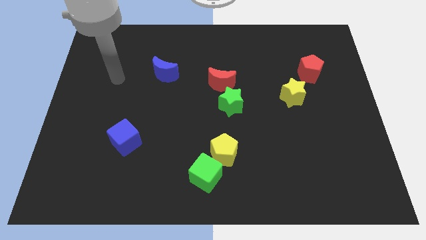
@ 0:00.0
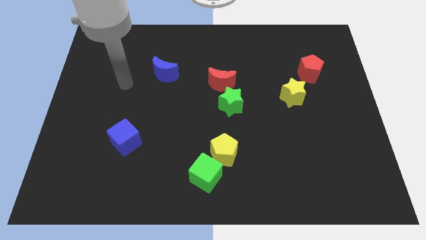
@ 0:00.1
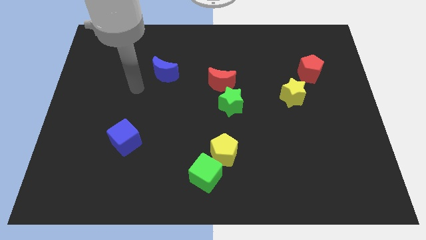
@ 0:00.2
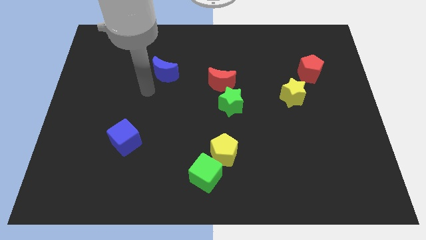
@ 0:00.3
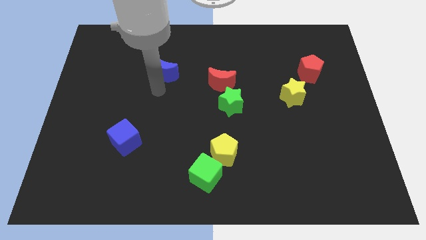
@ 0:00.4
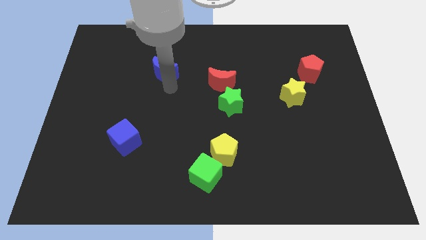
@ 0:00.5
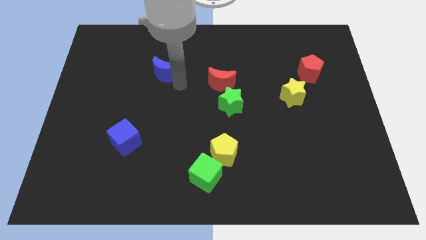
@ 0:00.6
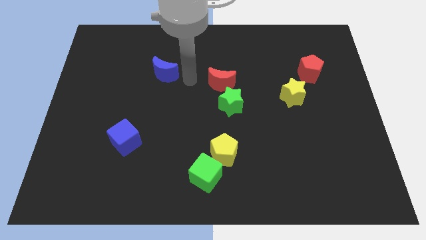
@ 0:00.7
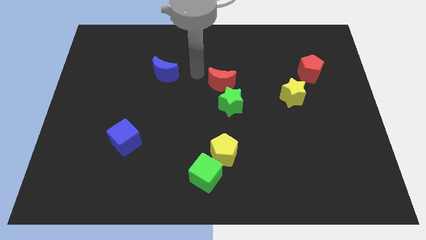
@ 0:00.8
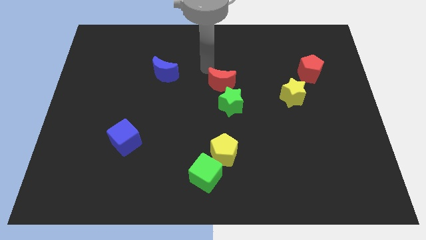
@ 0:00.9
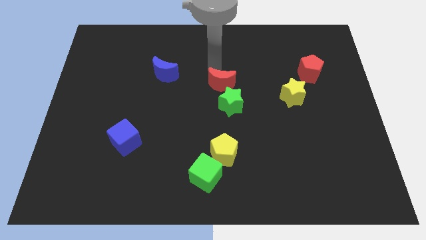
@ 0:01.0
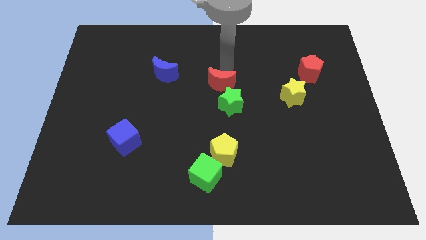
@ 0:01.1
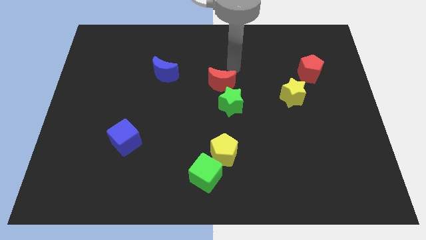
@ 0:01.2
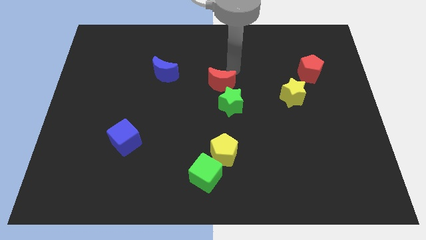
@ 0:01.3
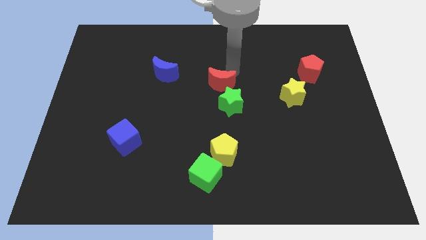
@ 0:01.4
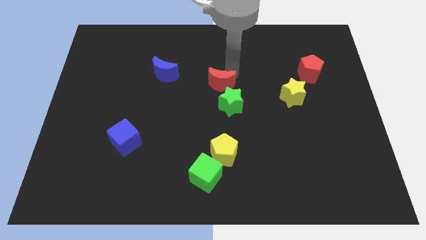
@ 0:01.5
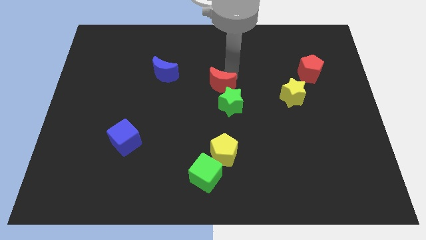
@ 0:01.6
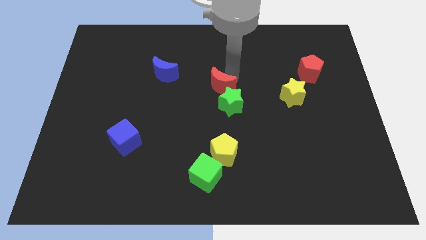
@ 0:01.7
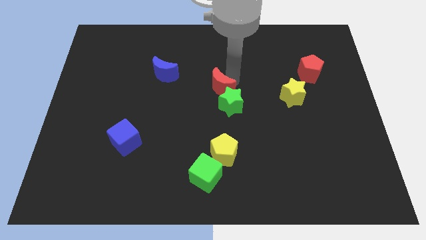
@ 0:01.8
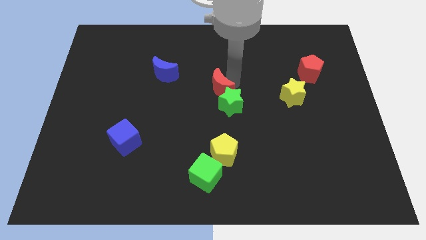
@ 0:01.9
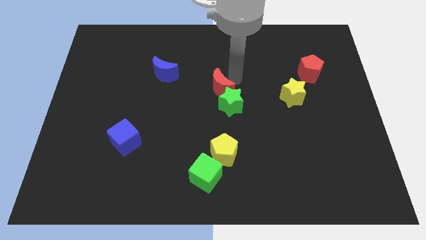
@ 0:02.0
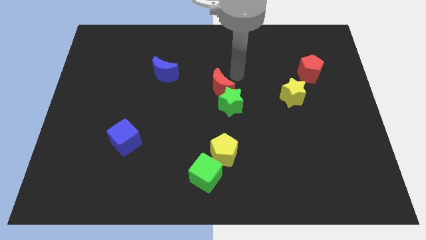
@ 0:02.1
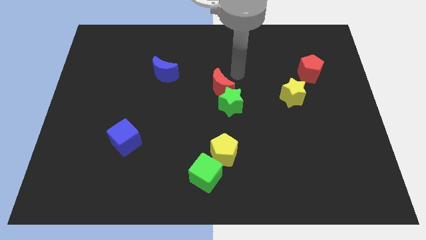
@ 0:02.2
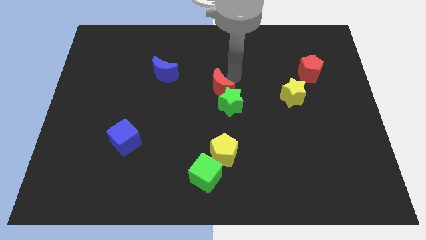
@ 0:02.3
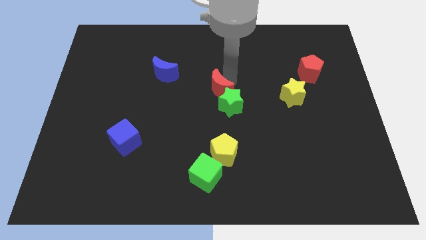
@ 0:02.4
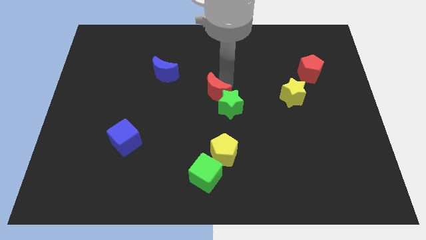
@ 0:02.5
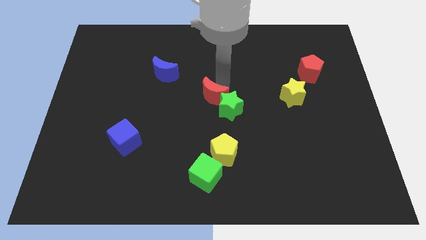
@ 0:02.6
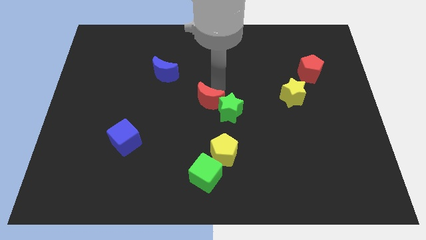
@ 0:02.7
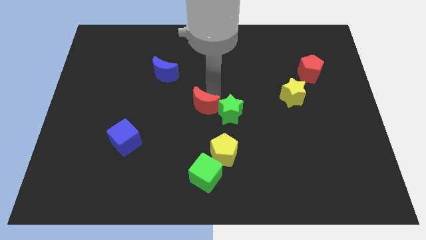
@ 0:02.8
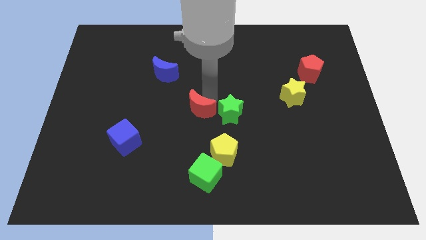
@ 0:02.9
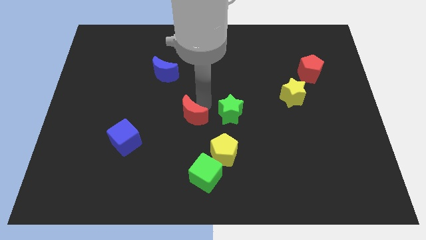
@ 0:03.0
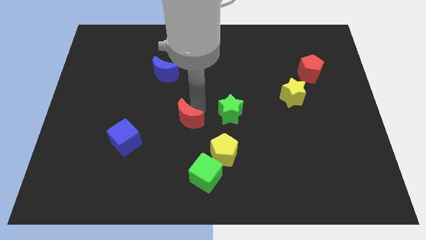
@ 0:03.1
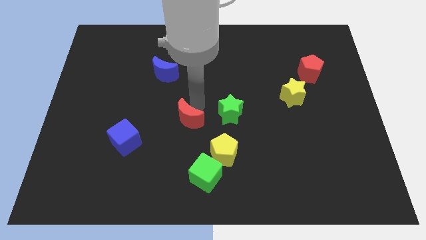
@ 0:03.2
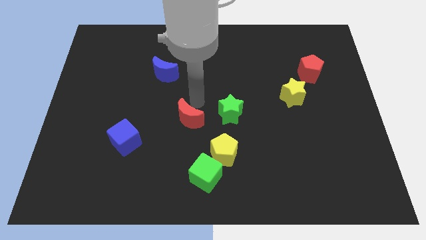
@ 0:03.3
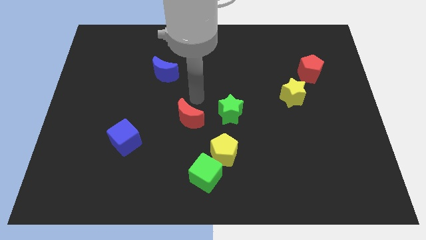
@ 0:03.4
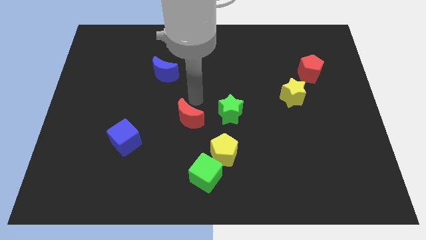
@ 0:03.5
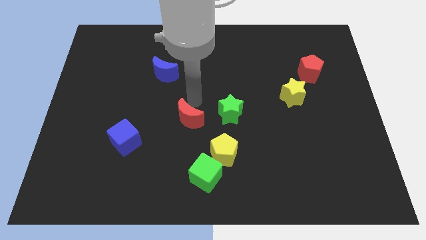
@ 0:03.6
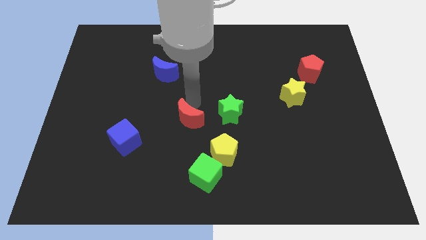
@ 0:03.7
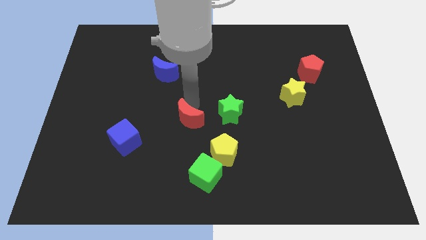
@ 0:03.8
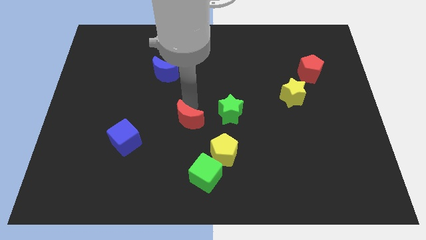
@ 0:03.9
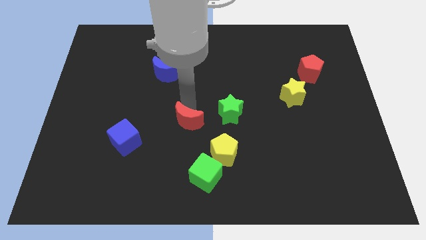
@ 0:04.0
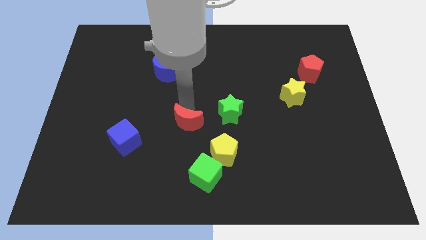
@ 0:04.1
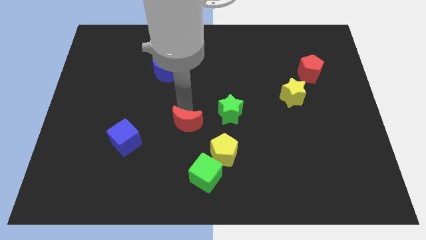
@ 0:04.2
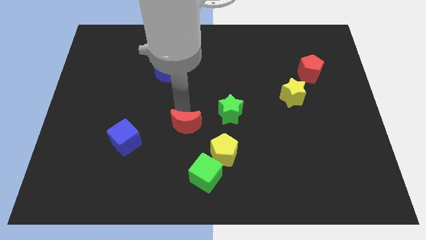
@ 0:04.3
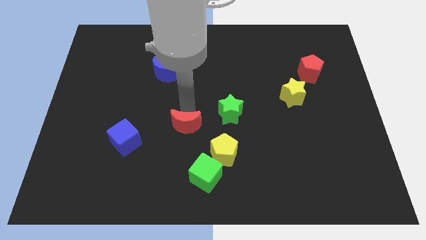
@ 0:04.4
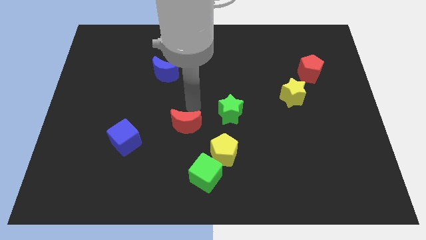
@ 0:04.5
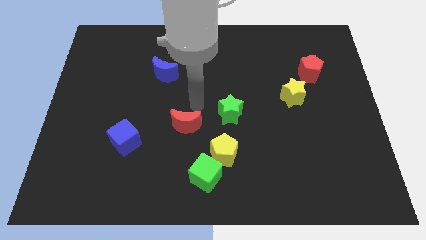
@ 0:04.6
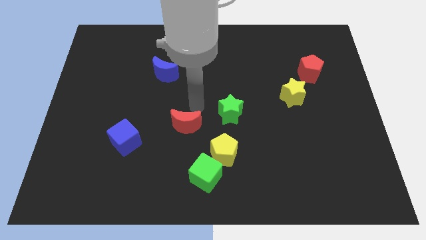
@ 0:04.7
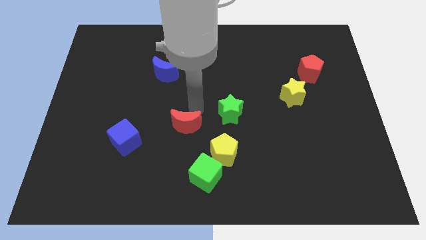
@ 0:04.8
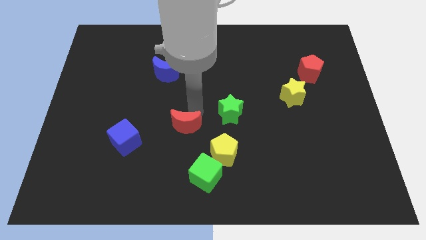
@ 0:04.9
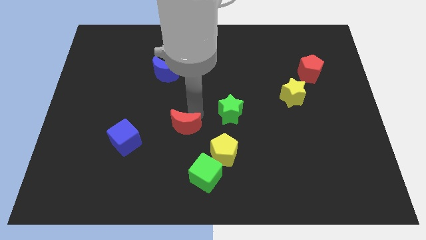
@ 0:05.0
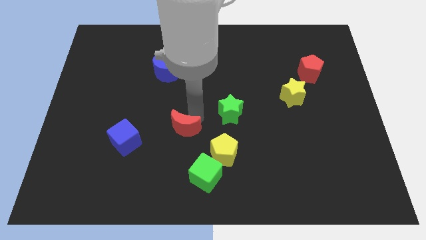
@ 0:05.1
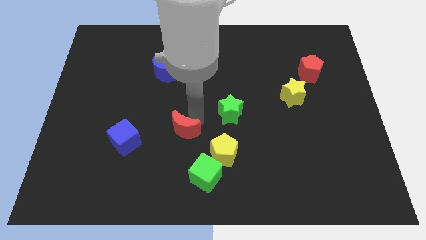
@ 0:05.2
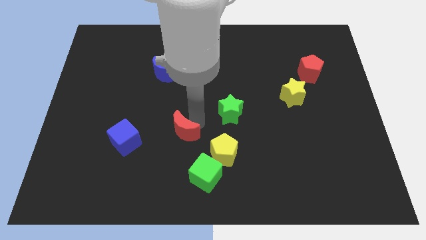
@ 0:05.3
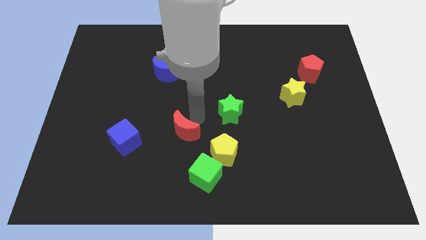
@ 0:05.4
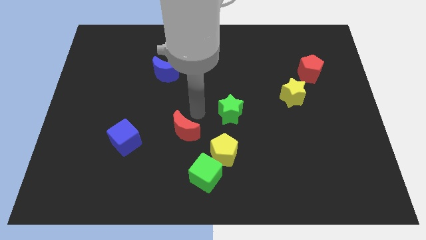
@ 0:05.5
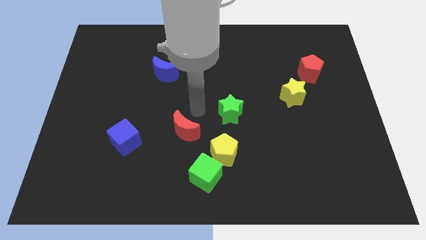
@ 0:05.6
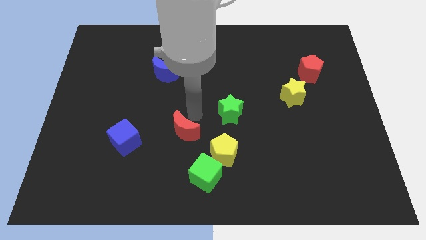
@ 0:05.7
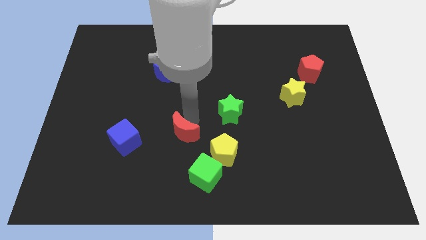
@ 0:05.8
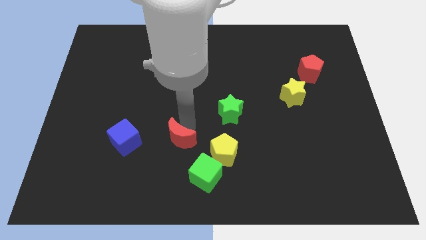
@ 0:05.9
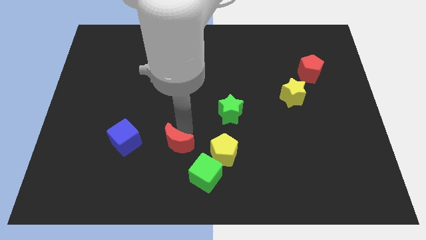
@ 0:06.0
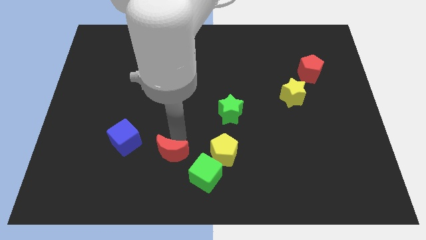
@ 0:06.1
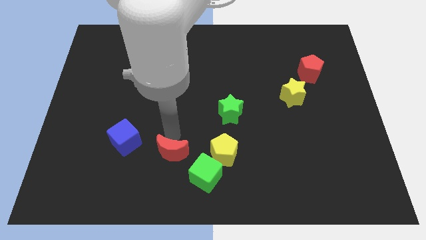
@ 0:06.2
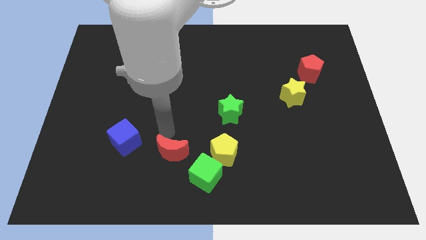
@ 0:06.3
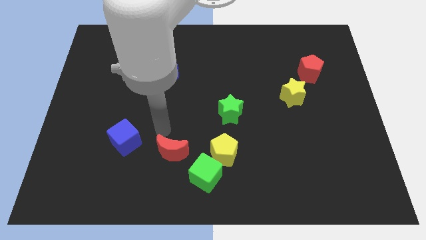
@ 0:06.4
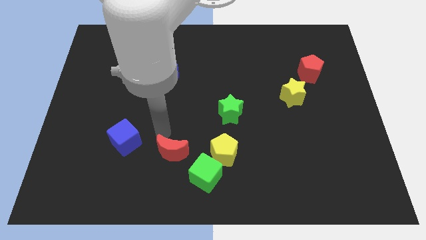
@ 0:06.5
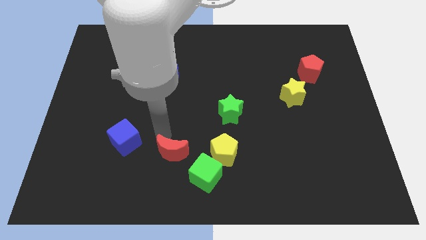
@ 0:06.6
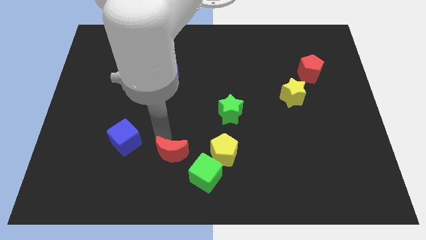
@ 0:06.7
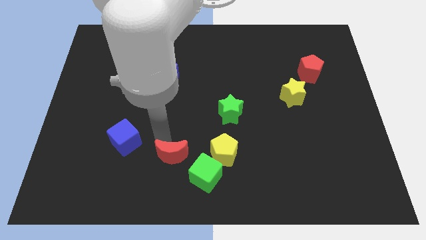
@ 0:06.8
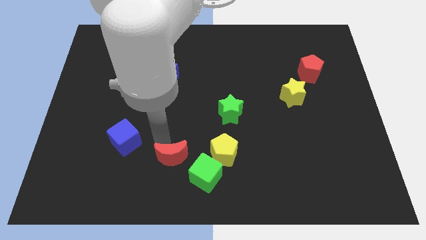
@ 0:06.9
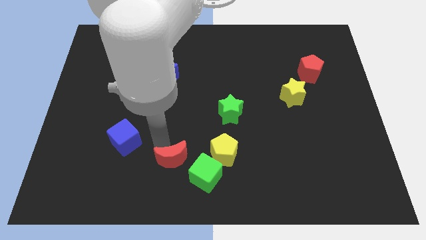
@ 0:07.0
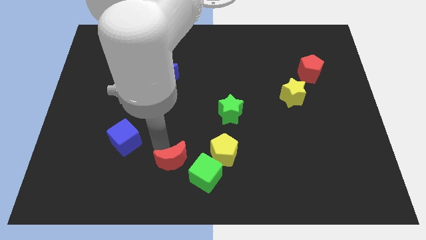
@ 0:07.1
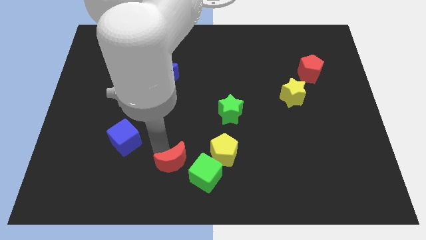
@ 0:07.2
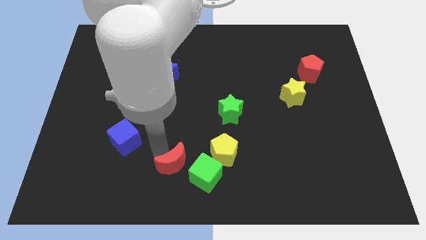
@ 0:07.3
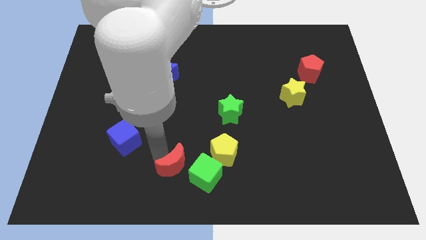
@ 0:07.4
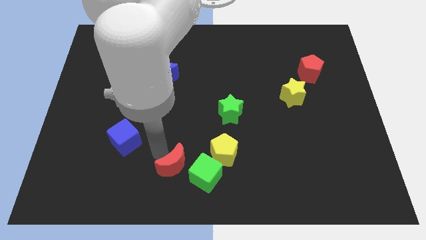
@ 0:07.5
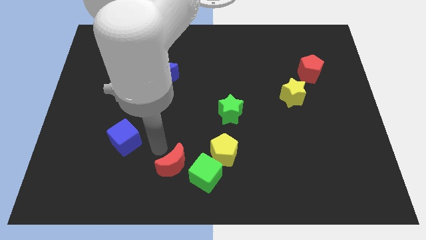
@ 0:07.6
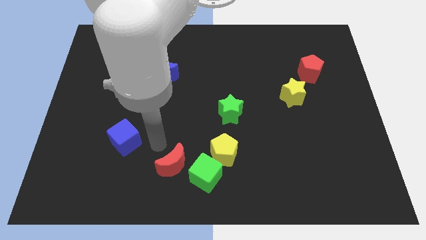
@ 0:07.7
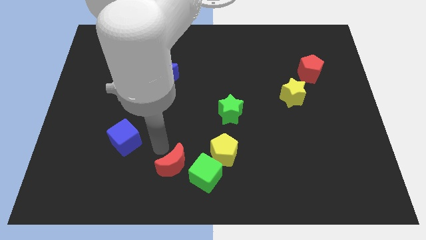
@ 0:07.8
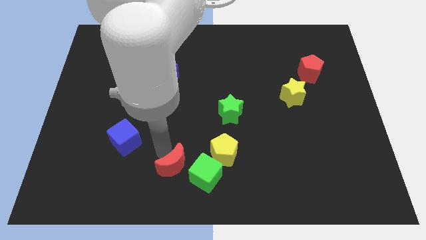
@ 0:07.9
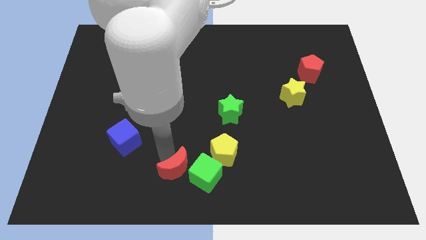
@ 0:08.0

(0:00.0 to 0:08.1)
move the red moon diagonally down and to the left of the yellow pentagon

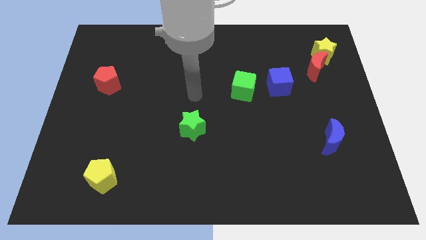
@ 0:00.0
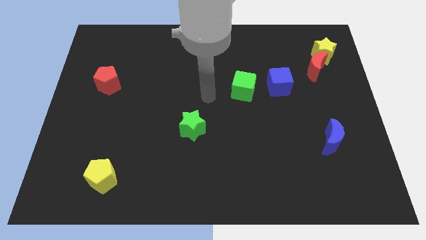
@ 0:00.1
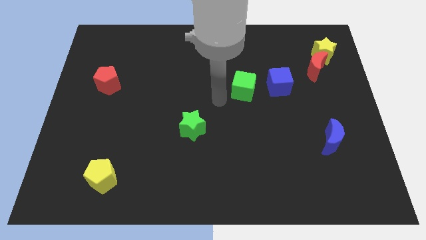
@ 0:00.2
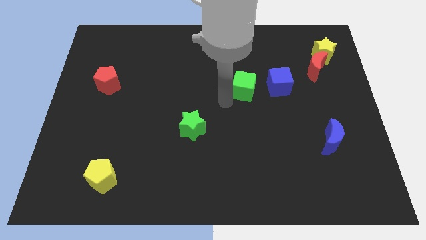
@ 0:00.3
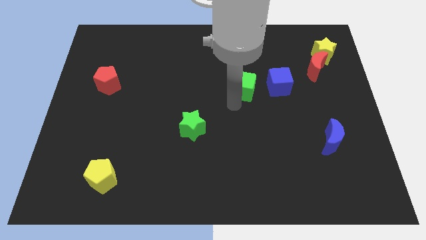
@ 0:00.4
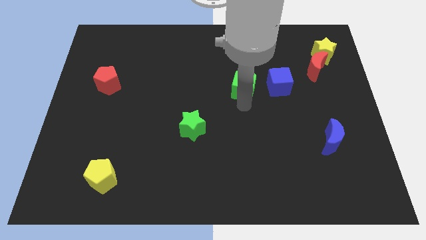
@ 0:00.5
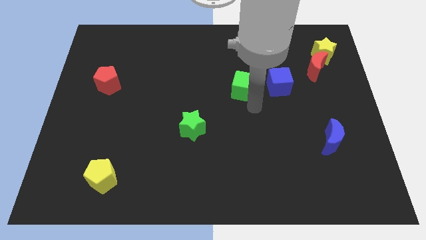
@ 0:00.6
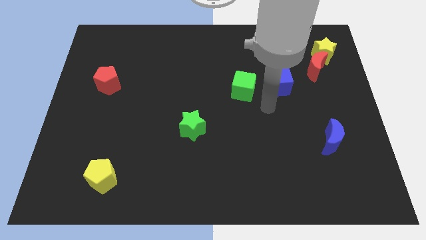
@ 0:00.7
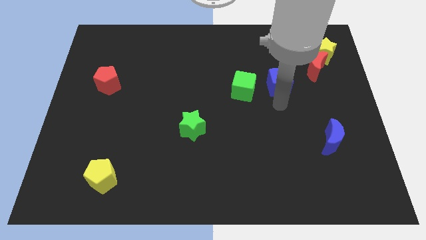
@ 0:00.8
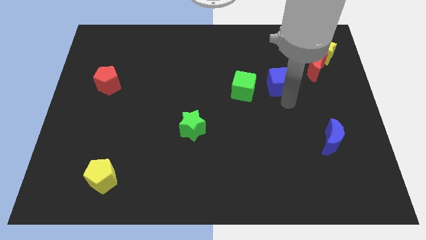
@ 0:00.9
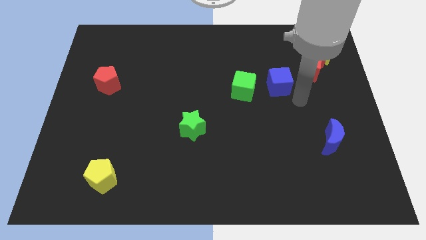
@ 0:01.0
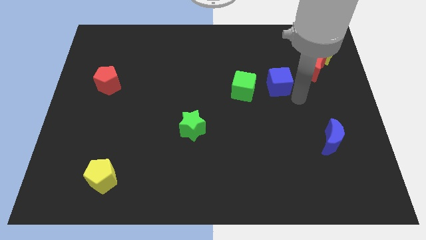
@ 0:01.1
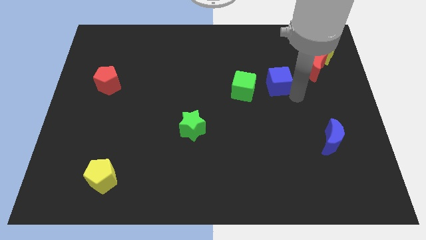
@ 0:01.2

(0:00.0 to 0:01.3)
slide the blue cube diagonally up and to the right of the green cube
